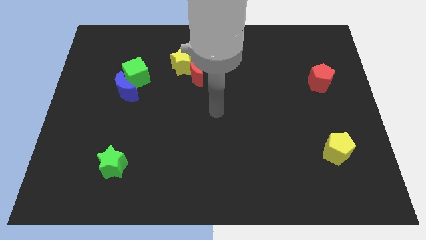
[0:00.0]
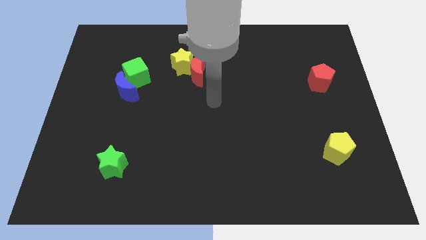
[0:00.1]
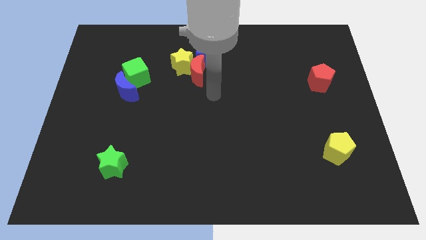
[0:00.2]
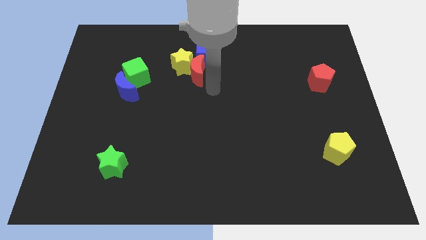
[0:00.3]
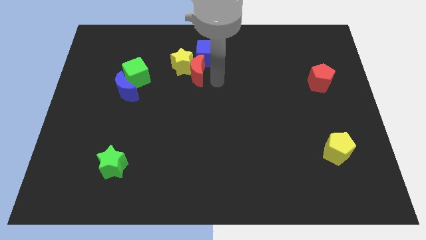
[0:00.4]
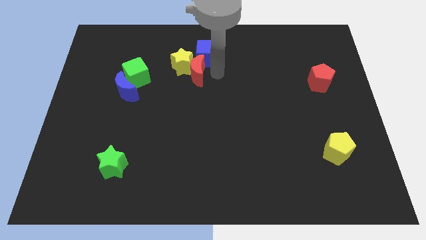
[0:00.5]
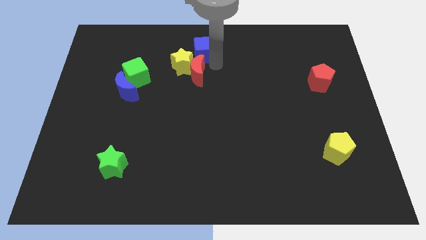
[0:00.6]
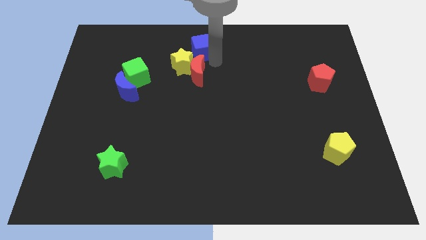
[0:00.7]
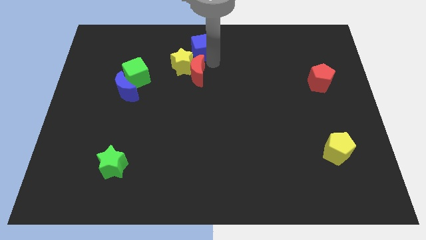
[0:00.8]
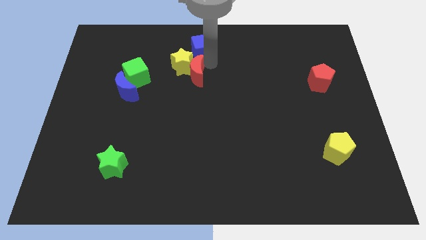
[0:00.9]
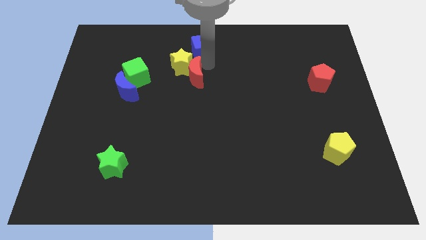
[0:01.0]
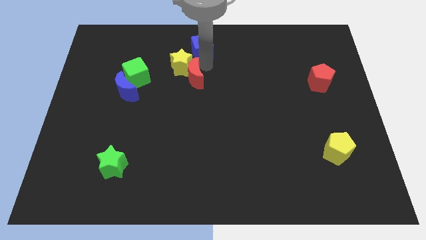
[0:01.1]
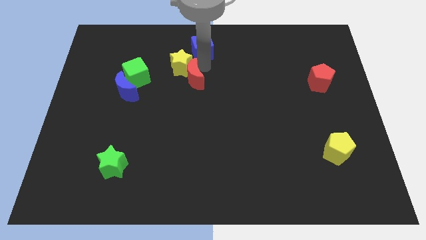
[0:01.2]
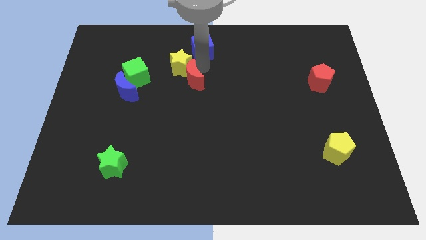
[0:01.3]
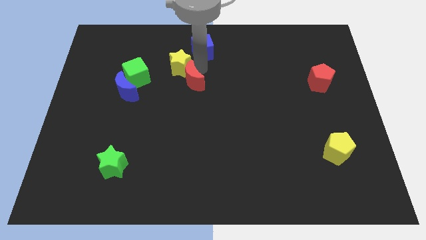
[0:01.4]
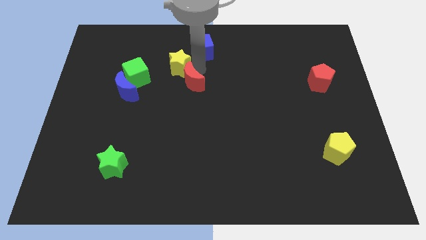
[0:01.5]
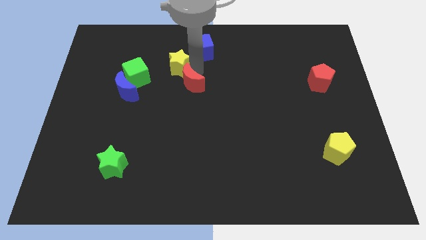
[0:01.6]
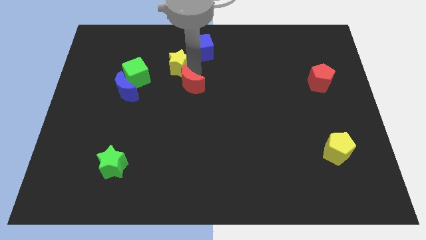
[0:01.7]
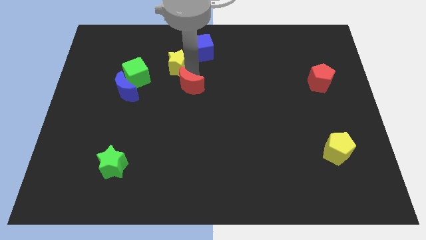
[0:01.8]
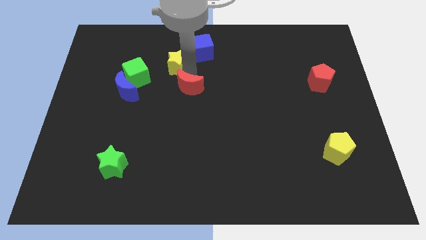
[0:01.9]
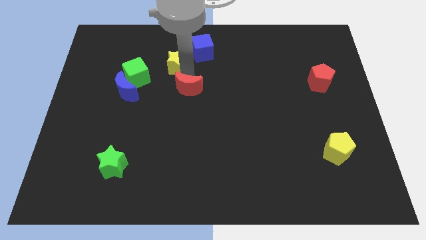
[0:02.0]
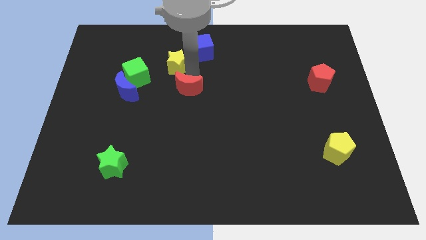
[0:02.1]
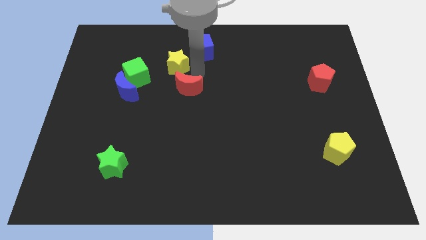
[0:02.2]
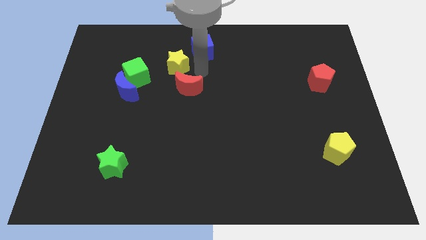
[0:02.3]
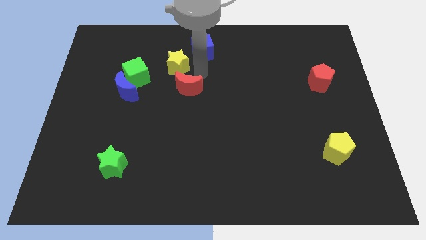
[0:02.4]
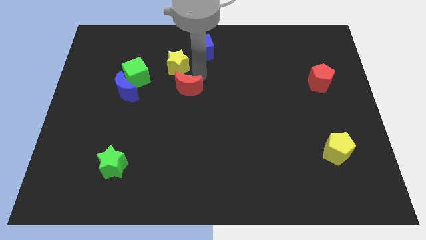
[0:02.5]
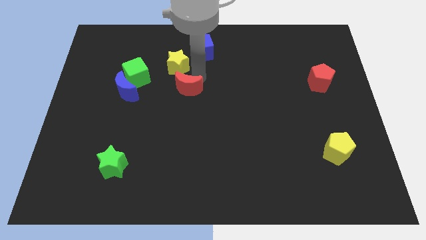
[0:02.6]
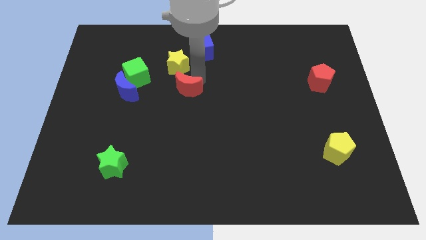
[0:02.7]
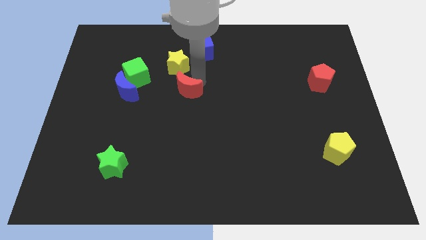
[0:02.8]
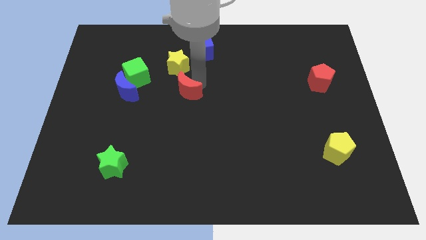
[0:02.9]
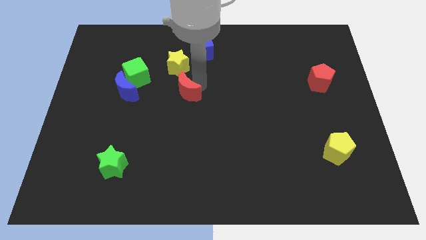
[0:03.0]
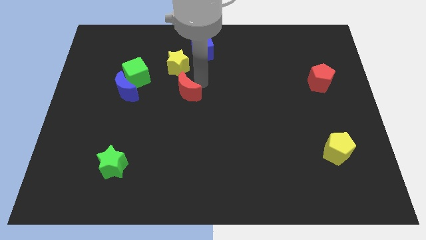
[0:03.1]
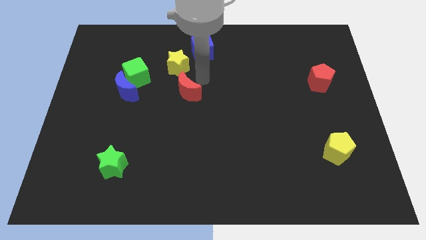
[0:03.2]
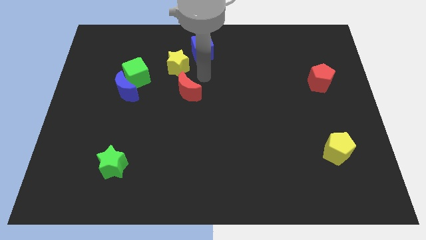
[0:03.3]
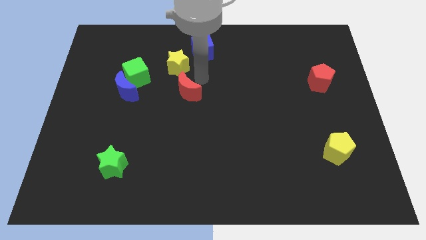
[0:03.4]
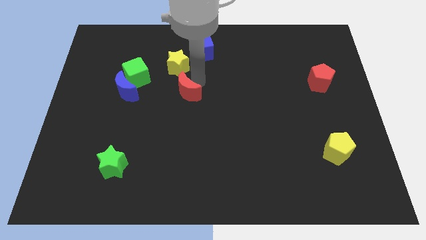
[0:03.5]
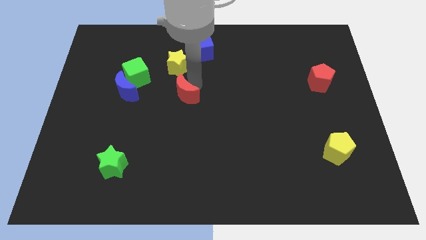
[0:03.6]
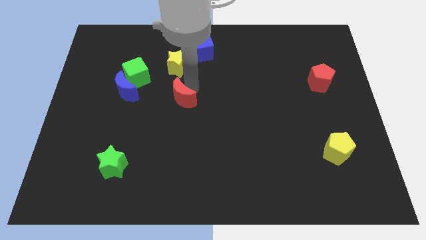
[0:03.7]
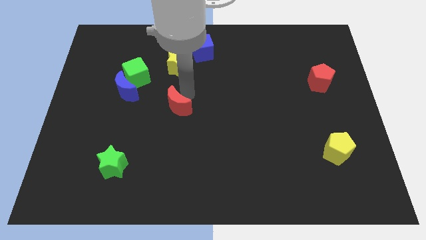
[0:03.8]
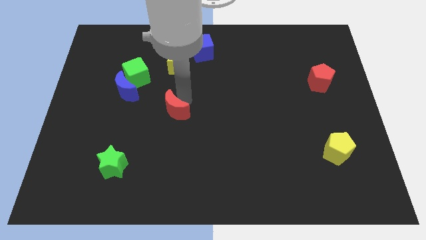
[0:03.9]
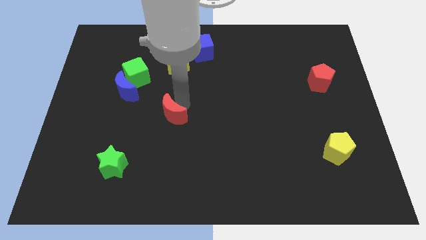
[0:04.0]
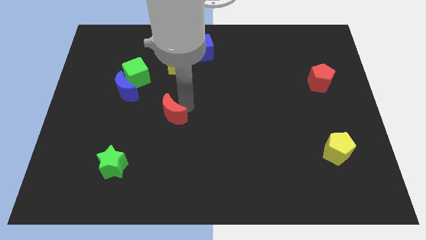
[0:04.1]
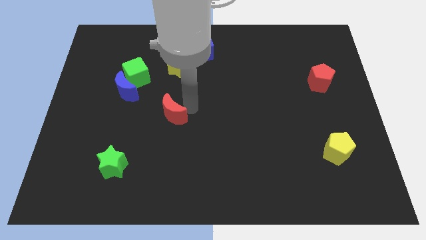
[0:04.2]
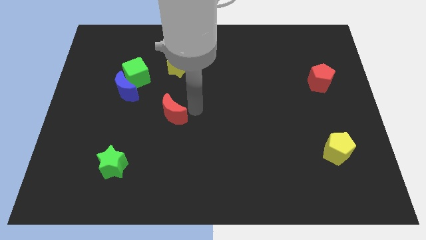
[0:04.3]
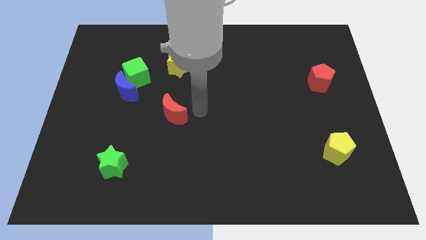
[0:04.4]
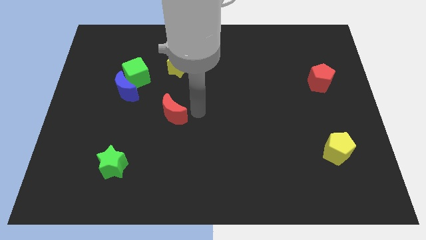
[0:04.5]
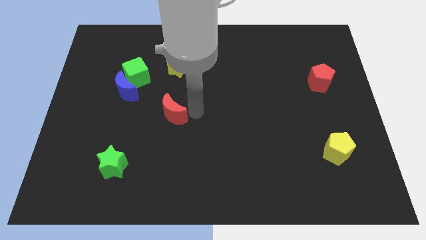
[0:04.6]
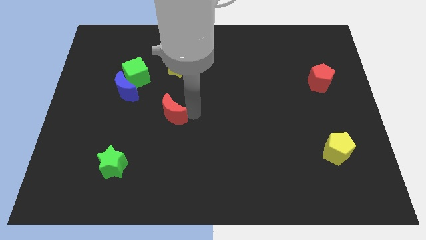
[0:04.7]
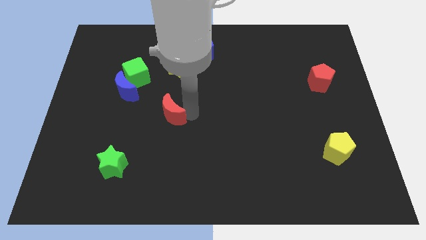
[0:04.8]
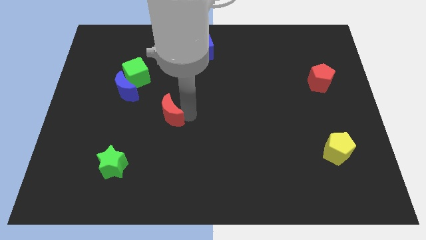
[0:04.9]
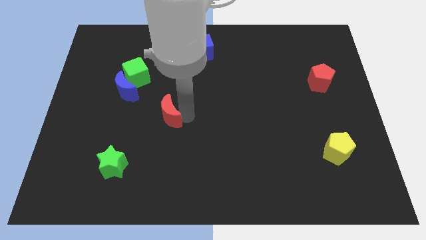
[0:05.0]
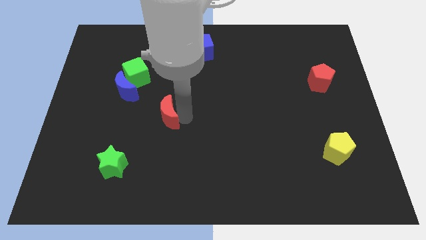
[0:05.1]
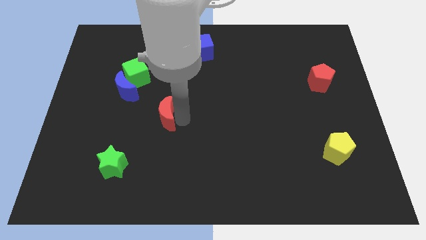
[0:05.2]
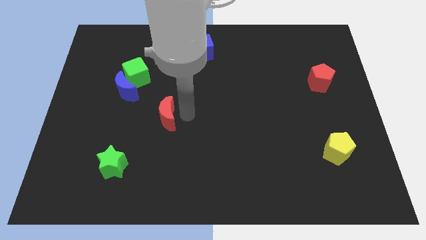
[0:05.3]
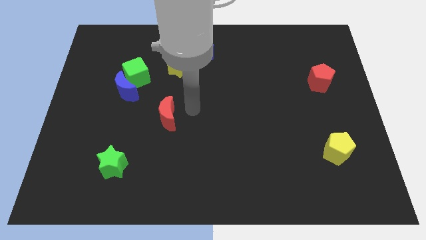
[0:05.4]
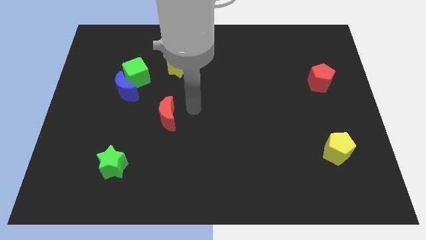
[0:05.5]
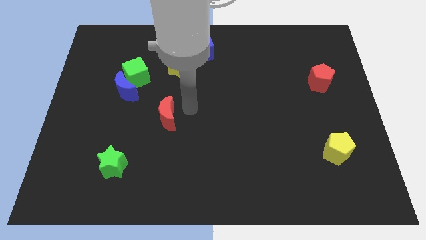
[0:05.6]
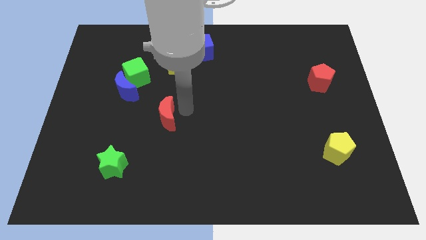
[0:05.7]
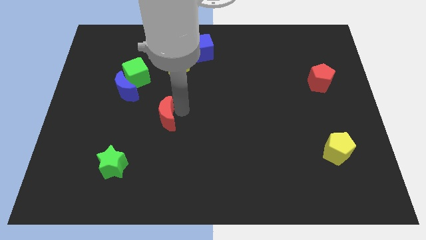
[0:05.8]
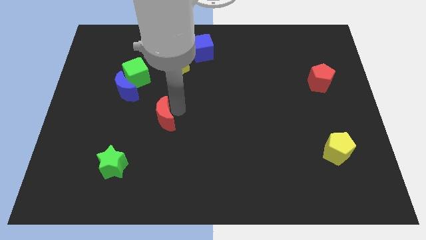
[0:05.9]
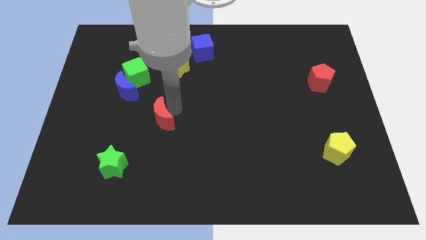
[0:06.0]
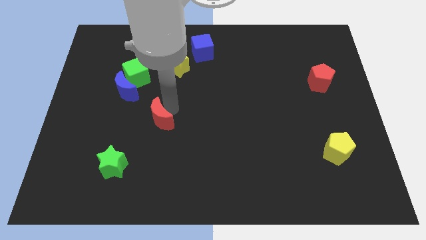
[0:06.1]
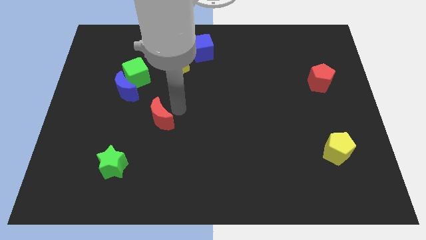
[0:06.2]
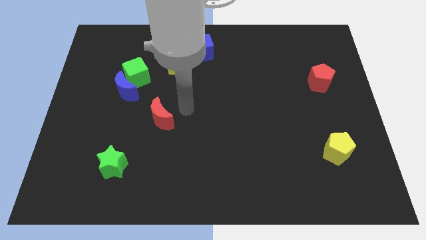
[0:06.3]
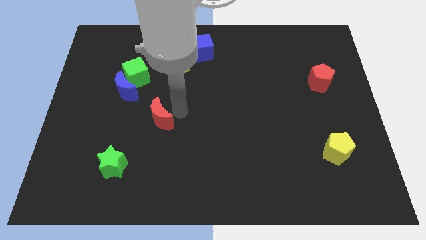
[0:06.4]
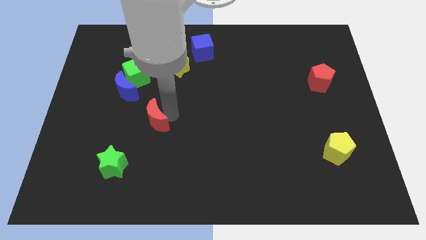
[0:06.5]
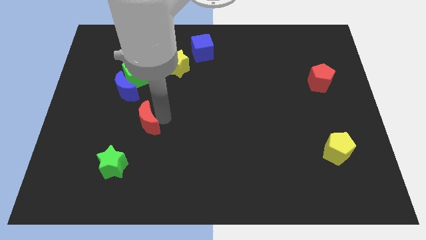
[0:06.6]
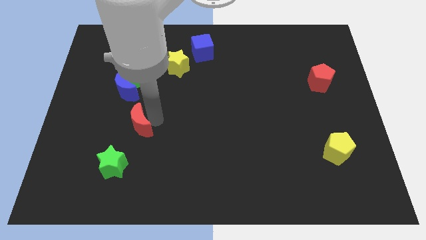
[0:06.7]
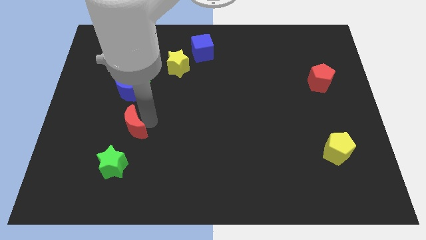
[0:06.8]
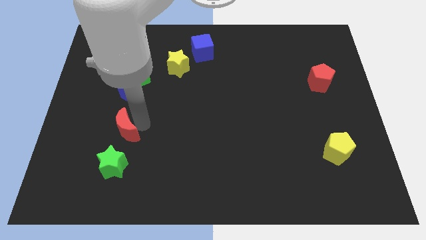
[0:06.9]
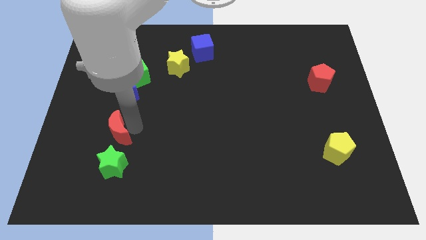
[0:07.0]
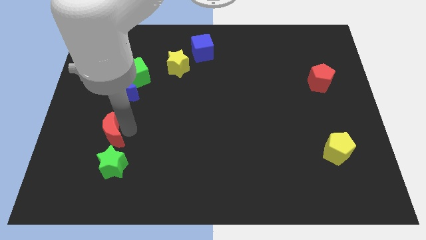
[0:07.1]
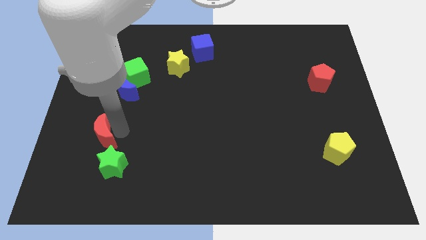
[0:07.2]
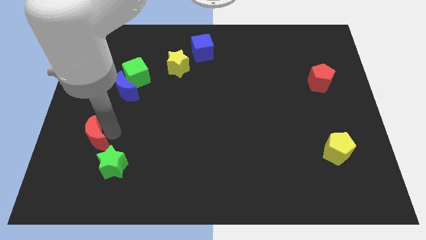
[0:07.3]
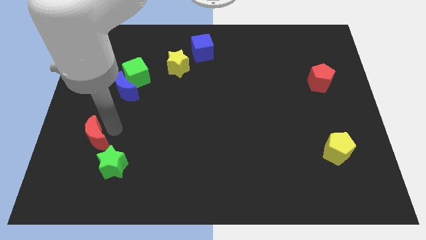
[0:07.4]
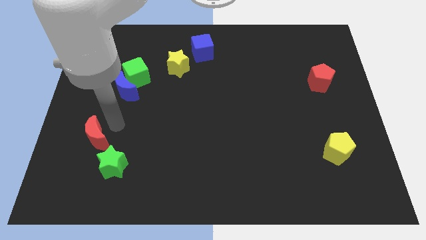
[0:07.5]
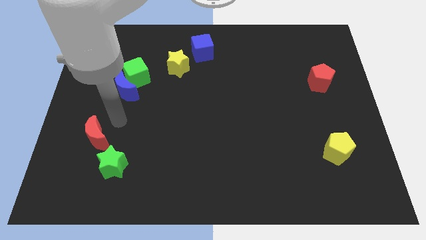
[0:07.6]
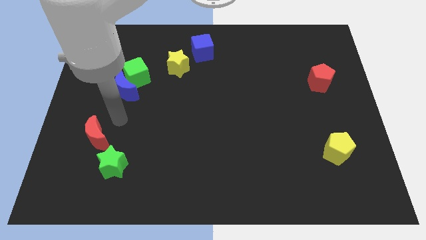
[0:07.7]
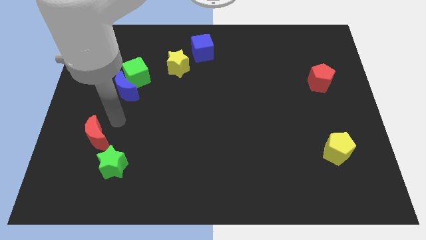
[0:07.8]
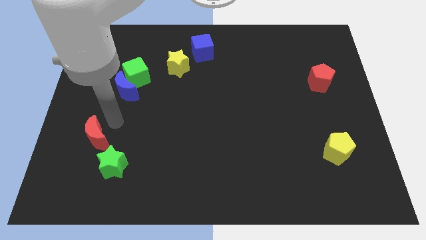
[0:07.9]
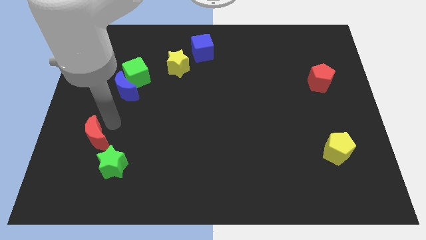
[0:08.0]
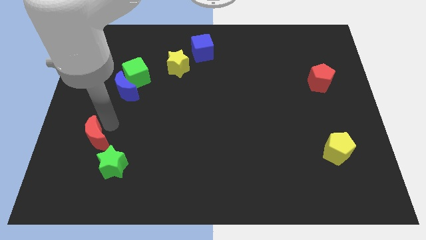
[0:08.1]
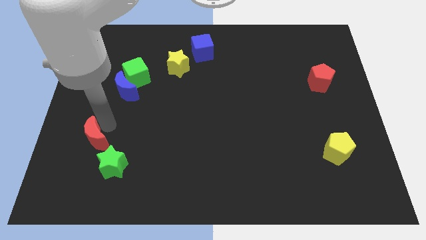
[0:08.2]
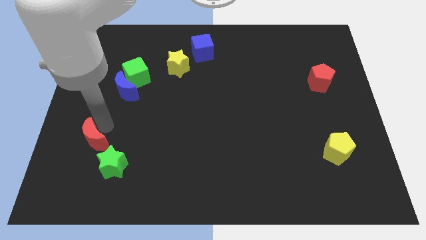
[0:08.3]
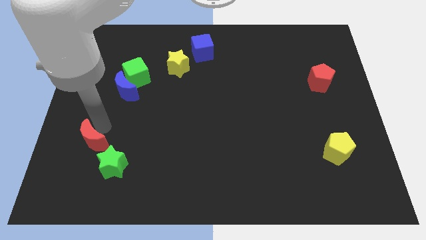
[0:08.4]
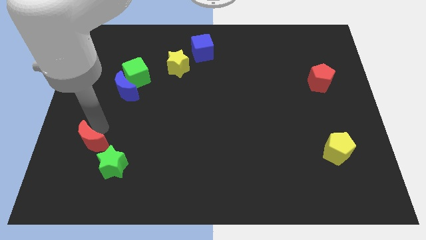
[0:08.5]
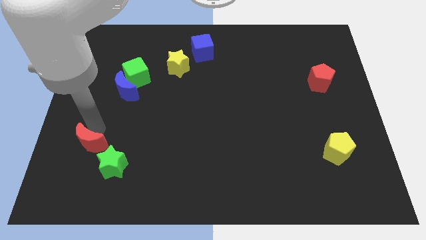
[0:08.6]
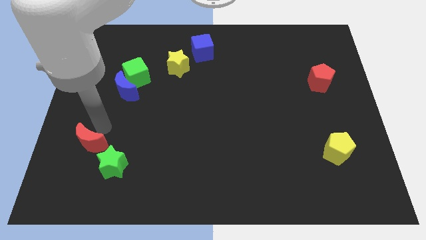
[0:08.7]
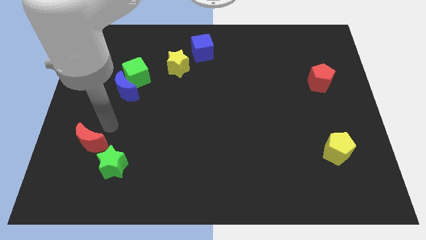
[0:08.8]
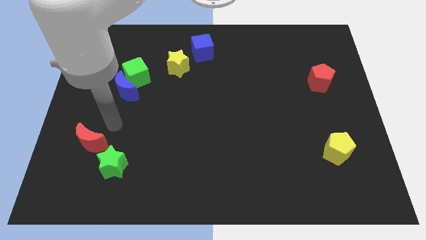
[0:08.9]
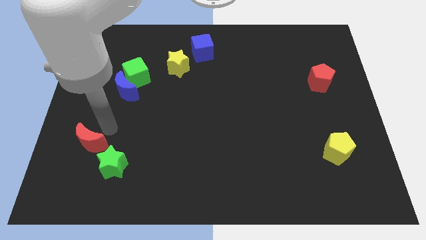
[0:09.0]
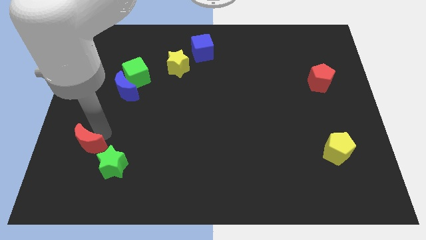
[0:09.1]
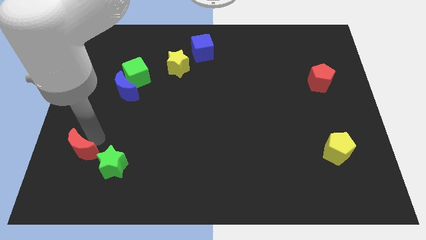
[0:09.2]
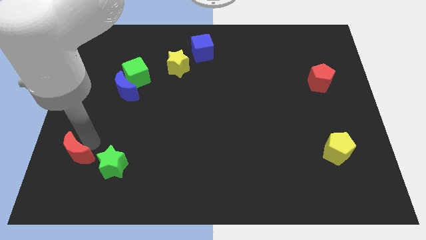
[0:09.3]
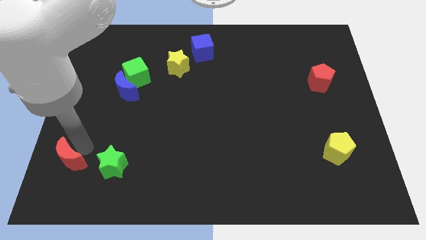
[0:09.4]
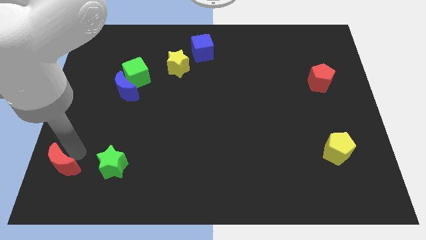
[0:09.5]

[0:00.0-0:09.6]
slide the red moon to the bottom left of the board
